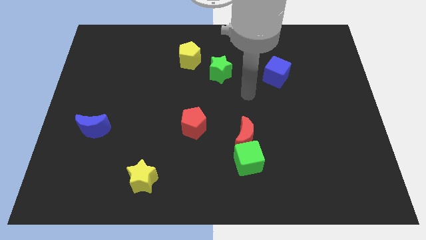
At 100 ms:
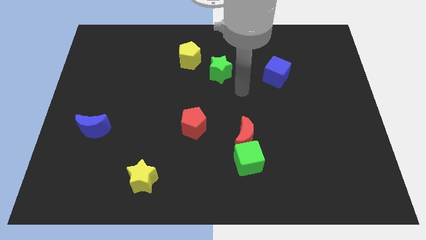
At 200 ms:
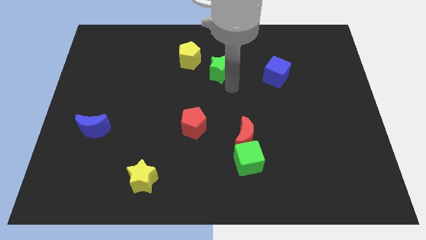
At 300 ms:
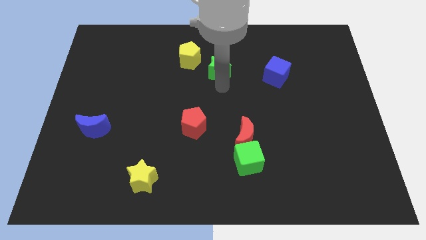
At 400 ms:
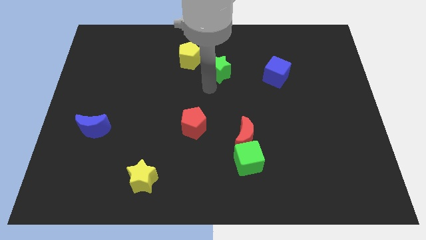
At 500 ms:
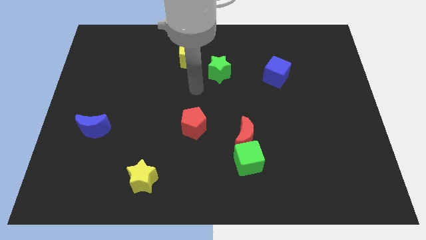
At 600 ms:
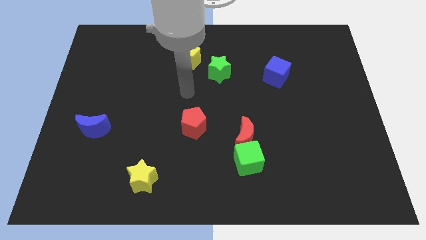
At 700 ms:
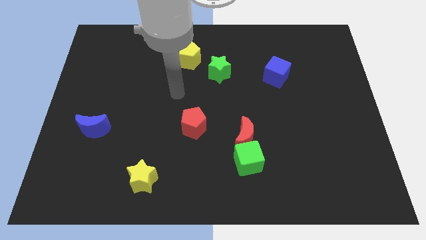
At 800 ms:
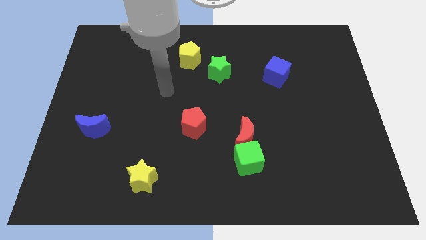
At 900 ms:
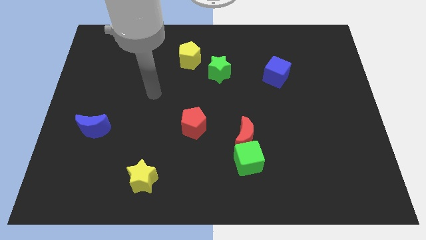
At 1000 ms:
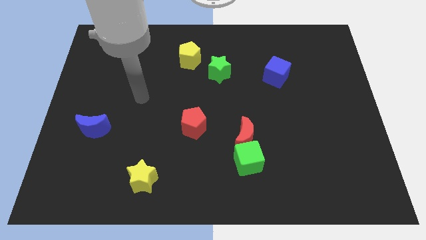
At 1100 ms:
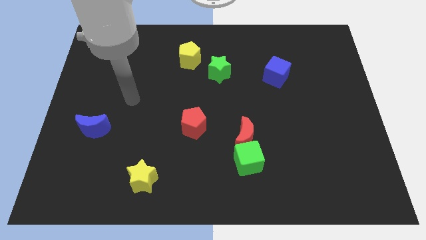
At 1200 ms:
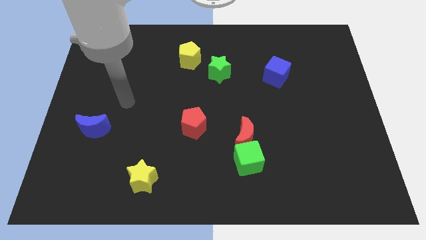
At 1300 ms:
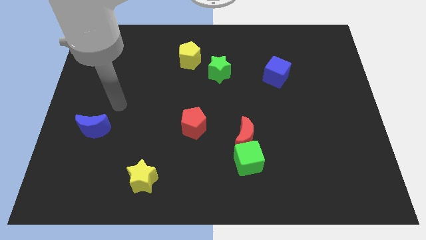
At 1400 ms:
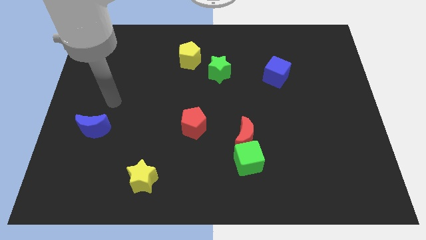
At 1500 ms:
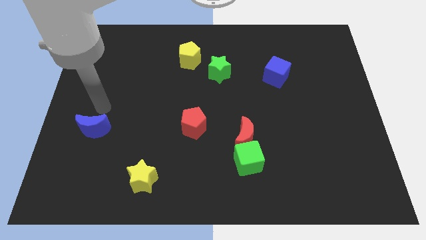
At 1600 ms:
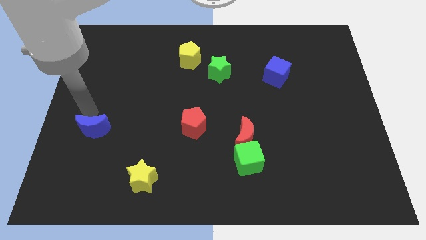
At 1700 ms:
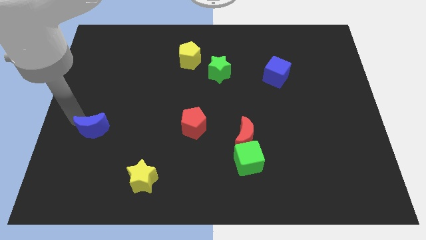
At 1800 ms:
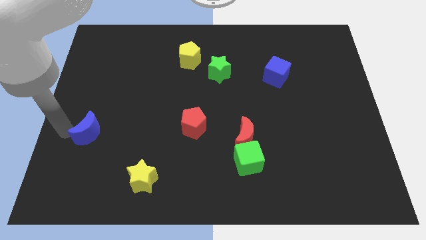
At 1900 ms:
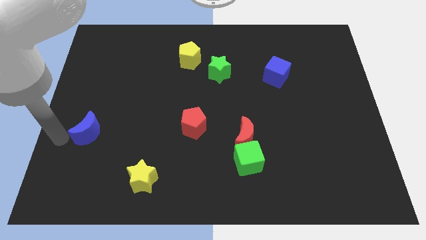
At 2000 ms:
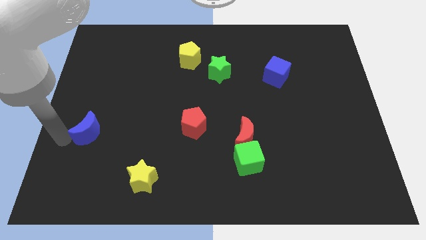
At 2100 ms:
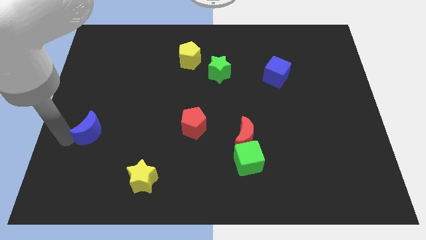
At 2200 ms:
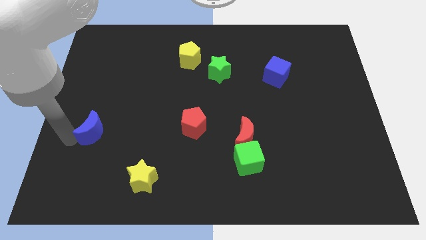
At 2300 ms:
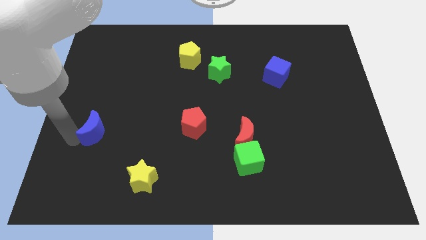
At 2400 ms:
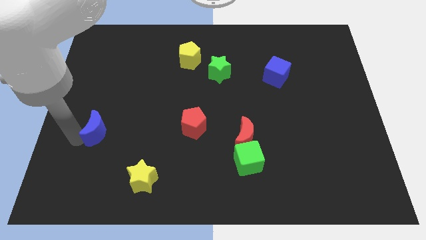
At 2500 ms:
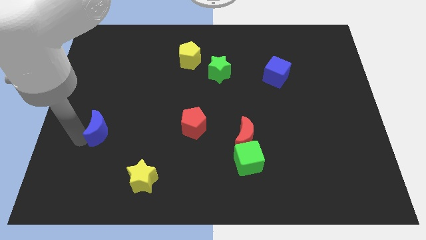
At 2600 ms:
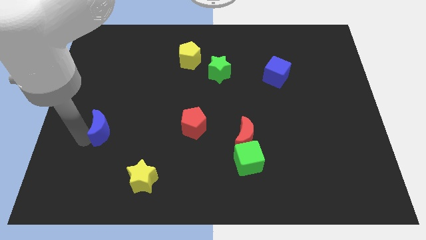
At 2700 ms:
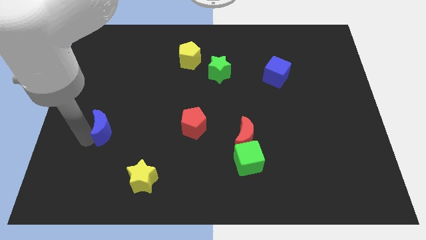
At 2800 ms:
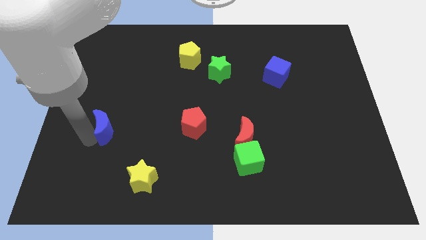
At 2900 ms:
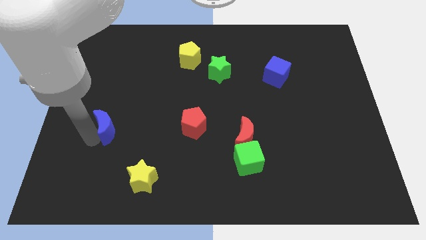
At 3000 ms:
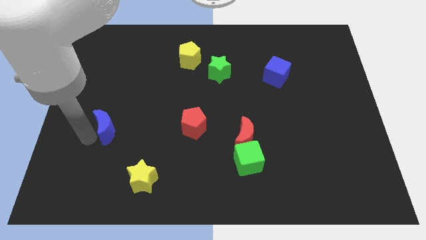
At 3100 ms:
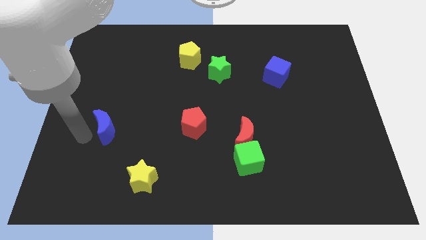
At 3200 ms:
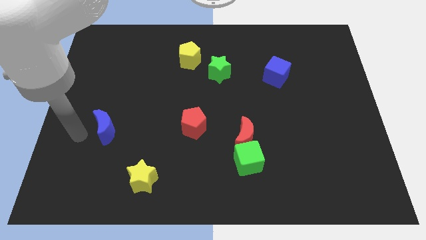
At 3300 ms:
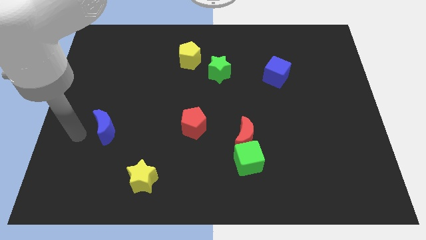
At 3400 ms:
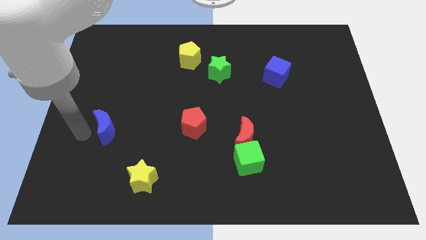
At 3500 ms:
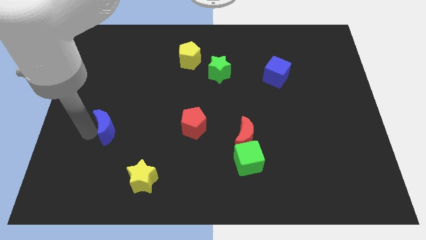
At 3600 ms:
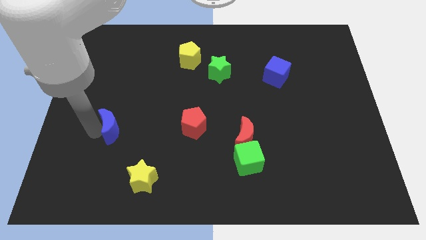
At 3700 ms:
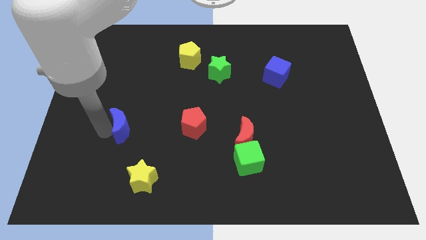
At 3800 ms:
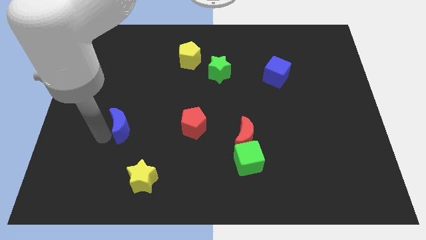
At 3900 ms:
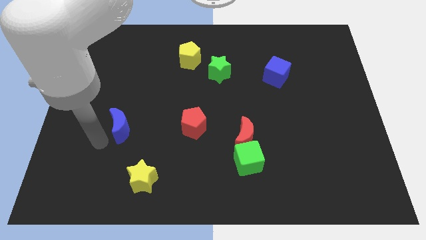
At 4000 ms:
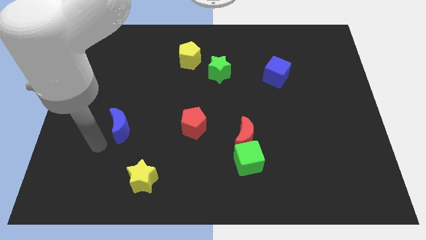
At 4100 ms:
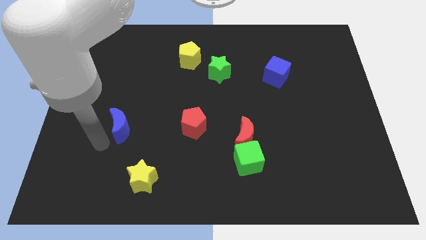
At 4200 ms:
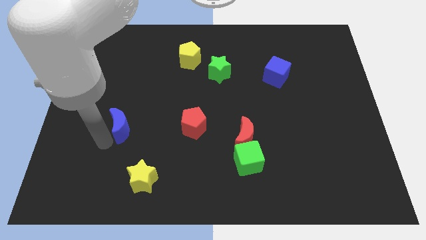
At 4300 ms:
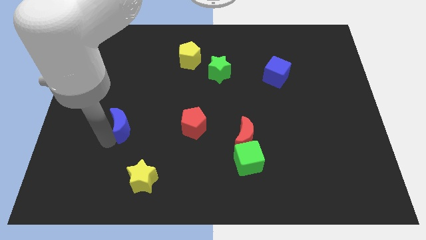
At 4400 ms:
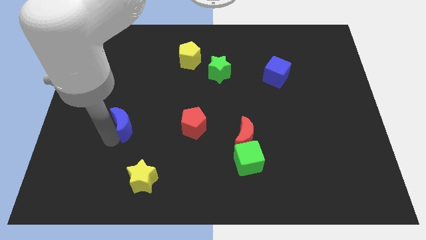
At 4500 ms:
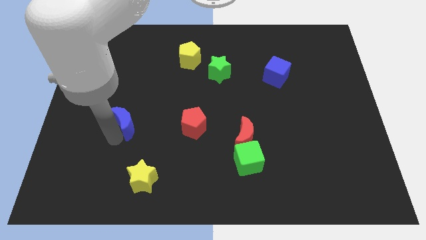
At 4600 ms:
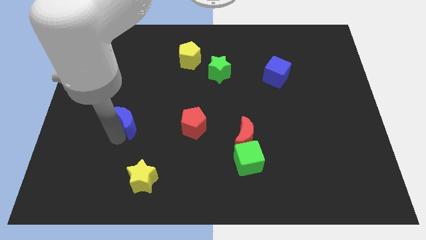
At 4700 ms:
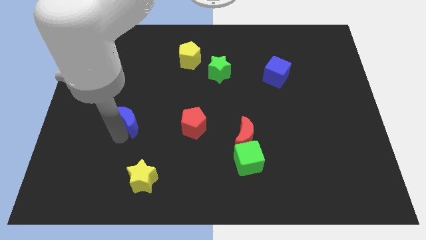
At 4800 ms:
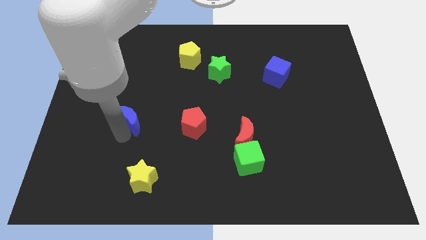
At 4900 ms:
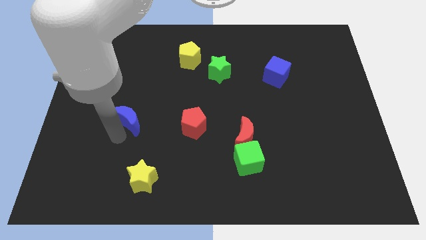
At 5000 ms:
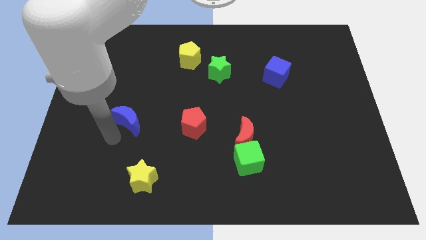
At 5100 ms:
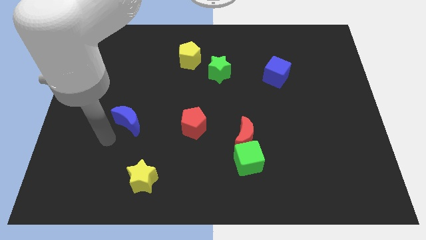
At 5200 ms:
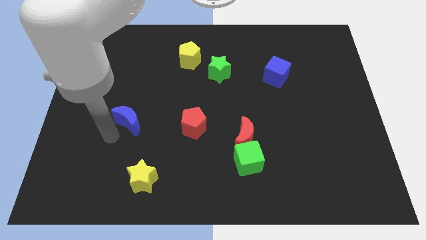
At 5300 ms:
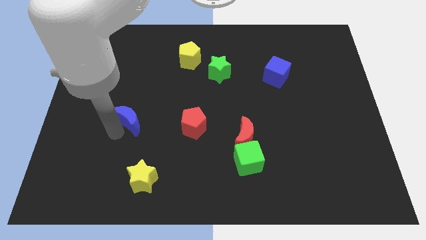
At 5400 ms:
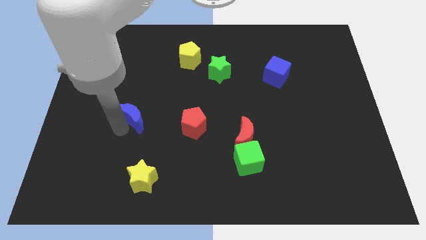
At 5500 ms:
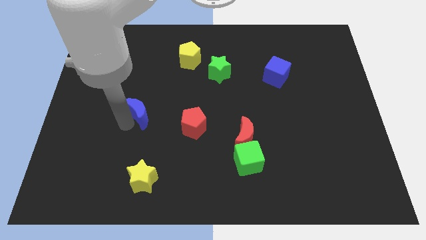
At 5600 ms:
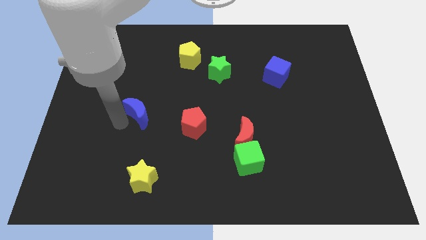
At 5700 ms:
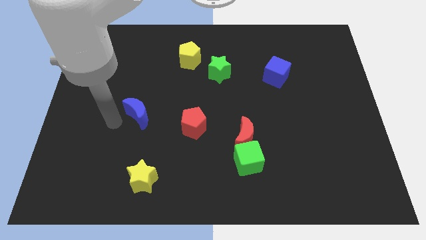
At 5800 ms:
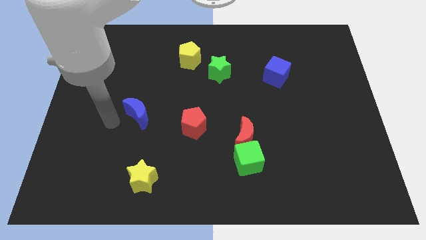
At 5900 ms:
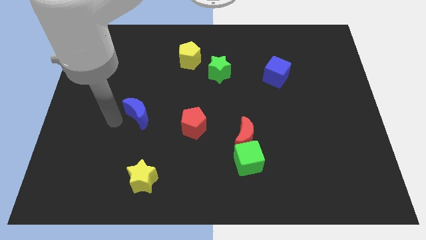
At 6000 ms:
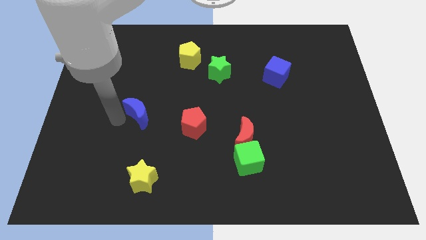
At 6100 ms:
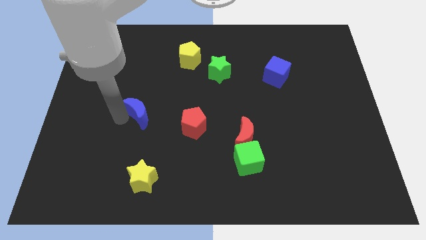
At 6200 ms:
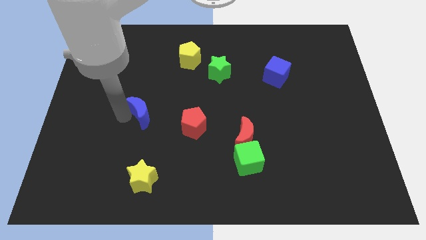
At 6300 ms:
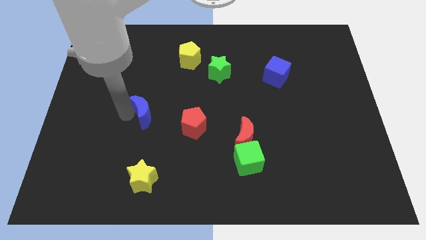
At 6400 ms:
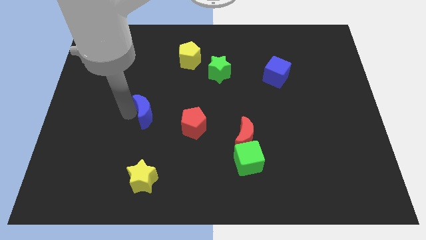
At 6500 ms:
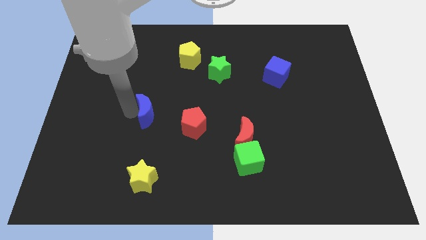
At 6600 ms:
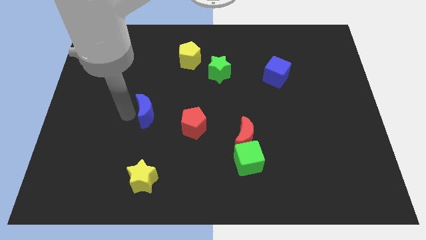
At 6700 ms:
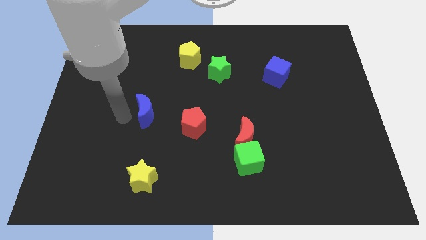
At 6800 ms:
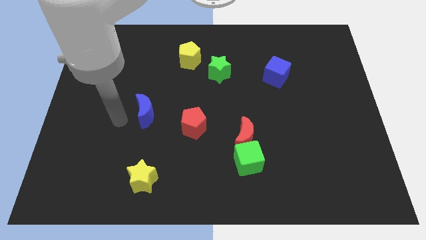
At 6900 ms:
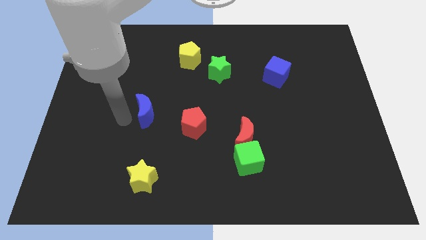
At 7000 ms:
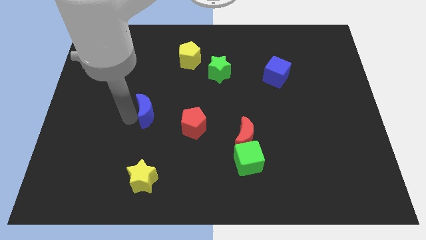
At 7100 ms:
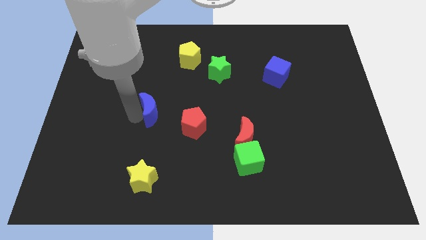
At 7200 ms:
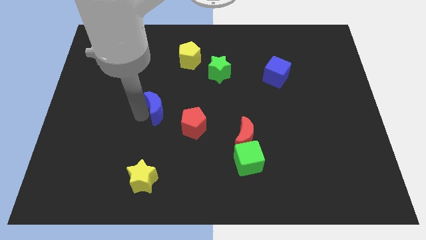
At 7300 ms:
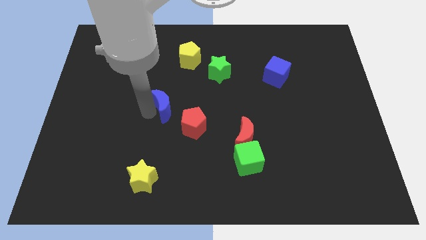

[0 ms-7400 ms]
put the blue moon to the center
